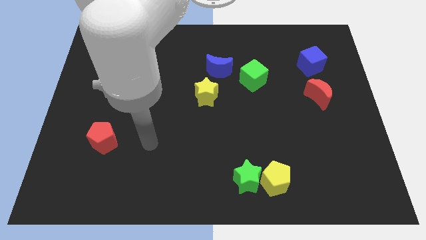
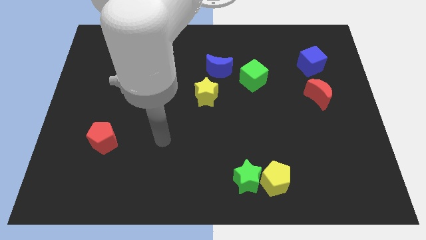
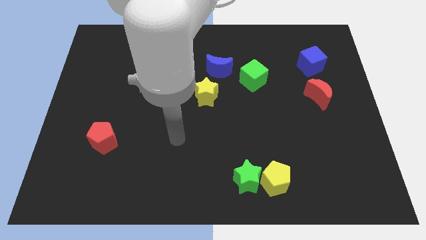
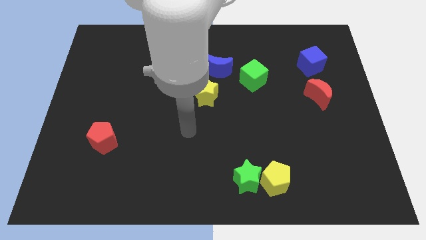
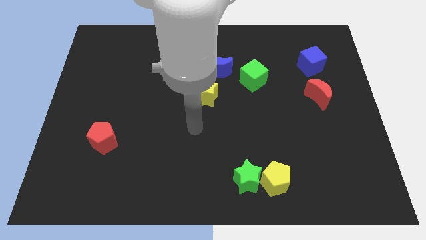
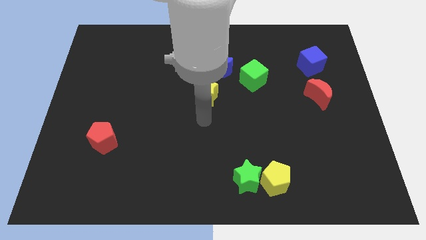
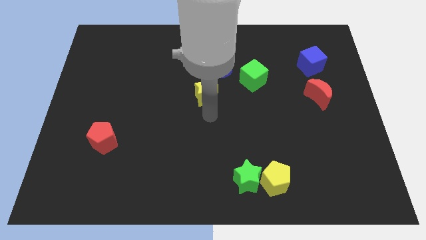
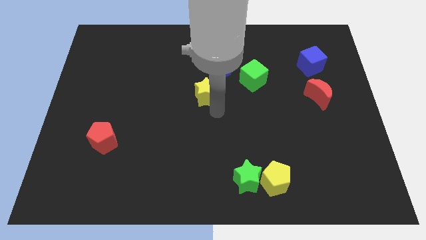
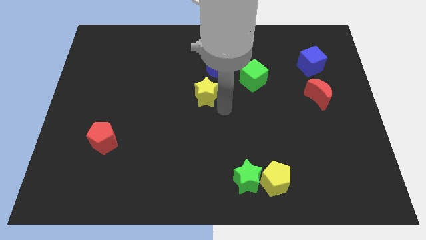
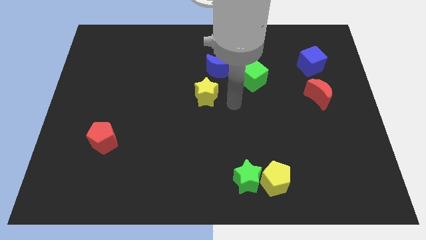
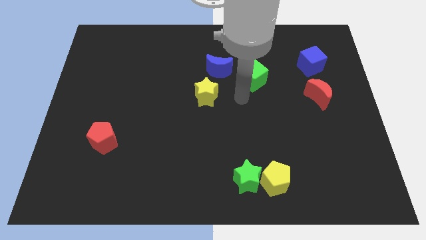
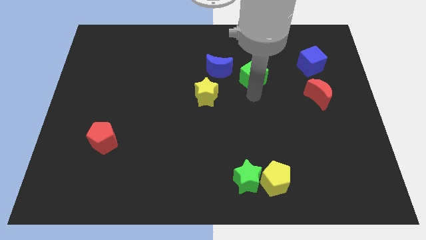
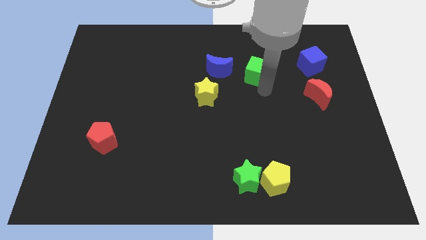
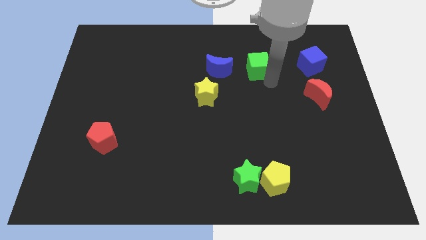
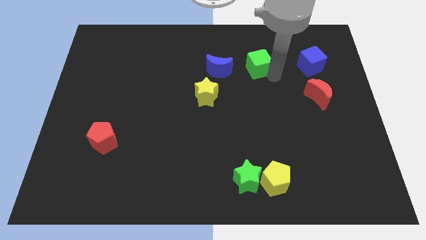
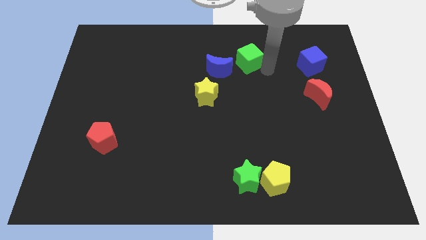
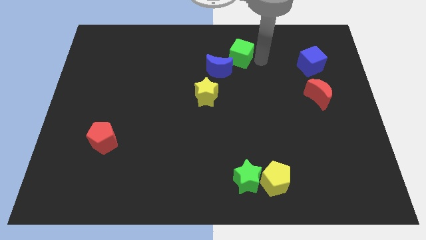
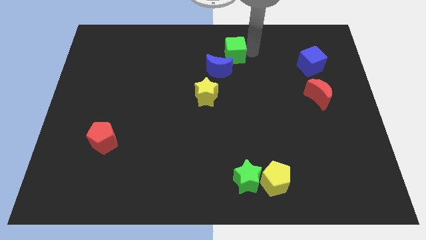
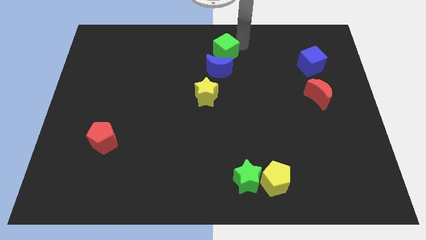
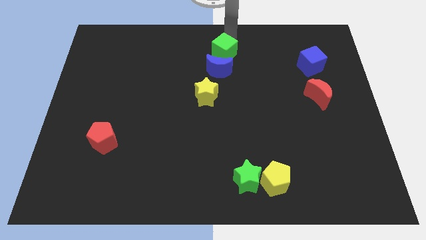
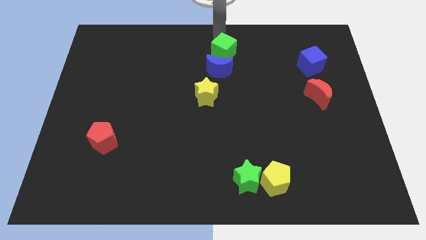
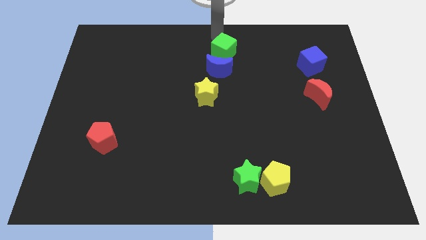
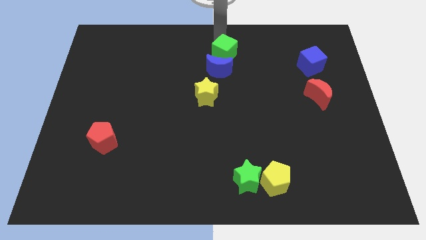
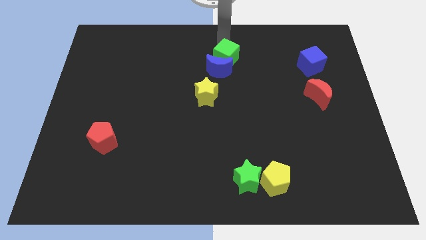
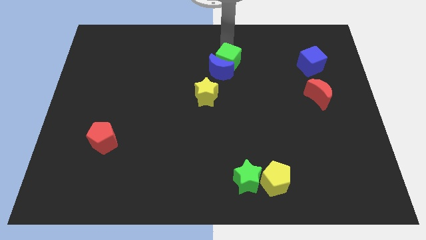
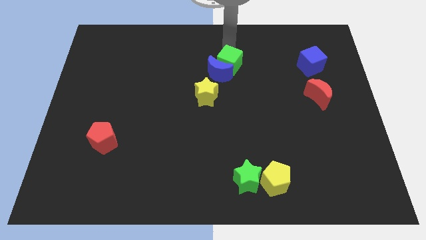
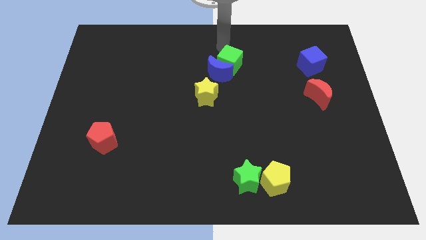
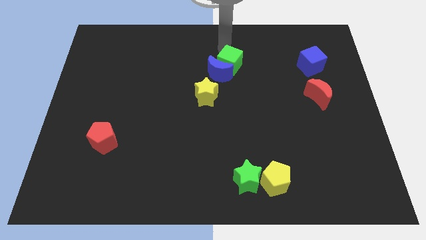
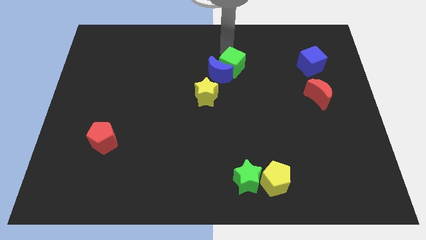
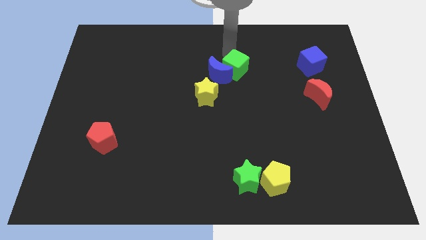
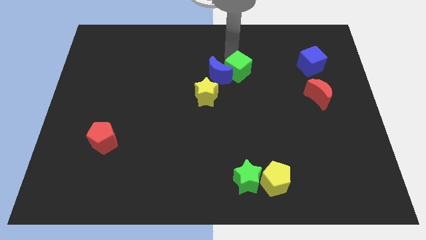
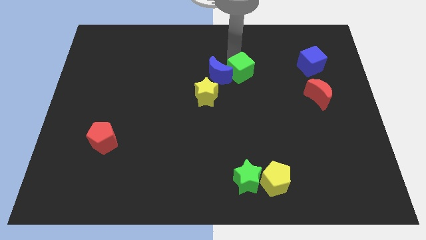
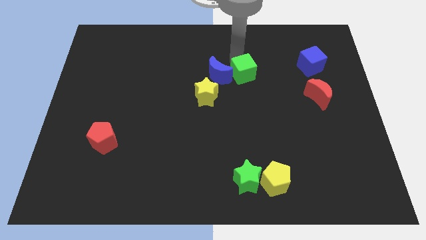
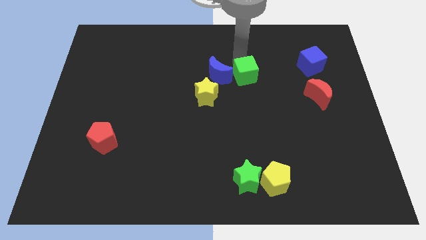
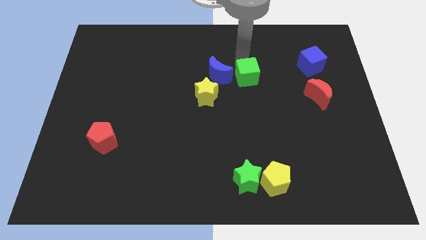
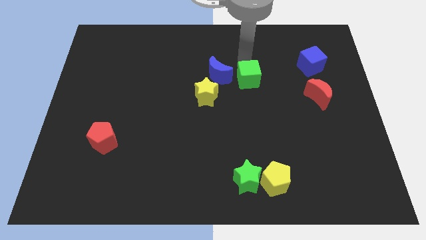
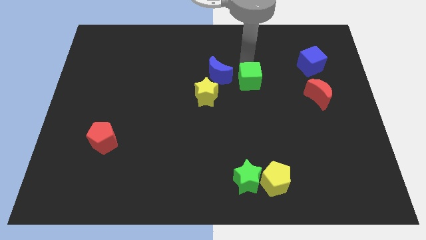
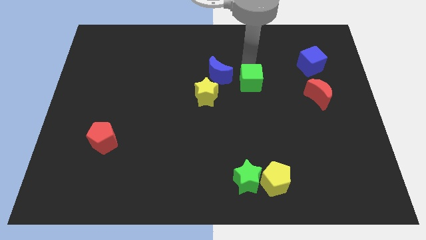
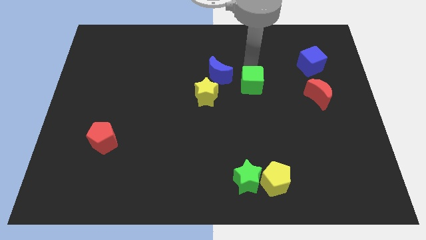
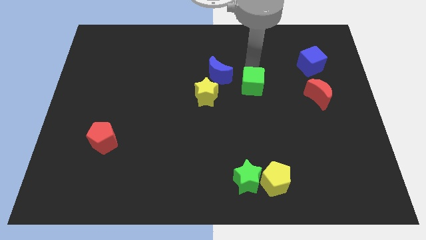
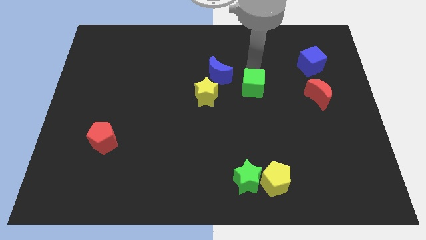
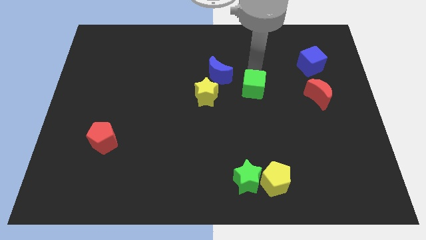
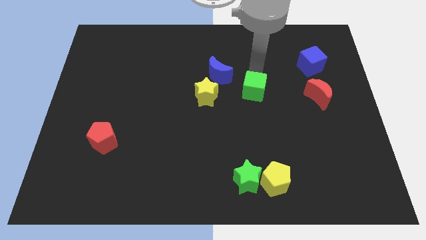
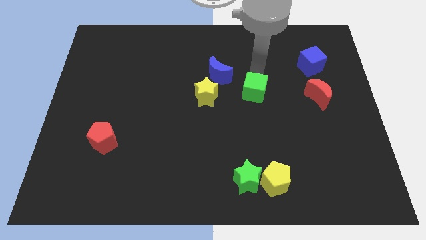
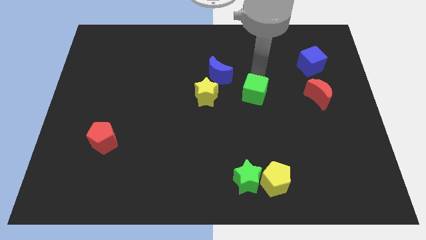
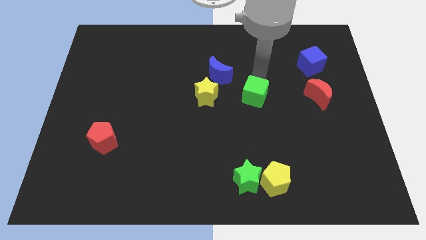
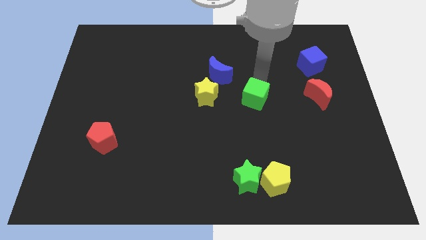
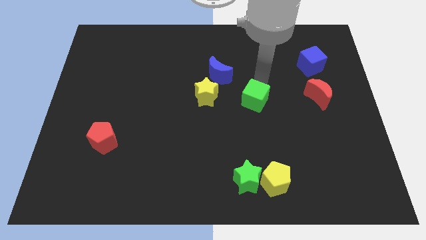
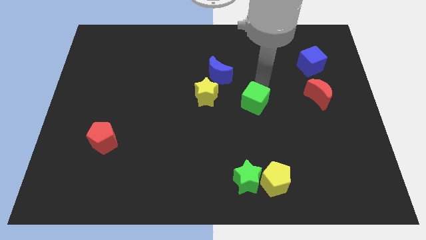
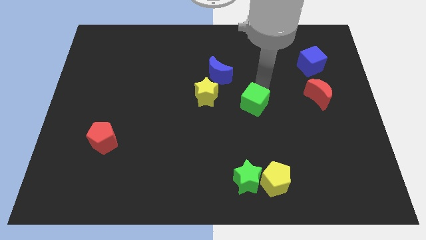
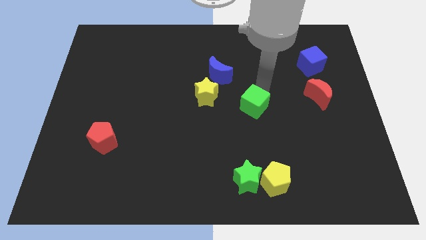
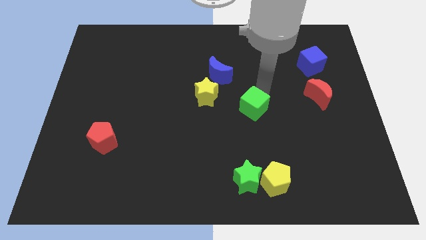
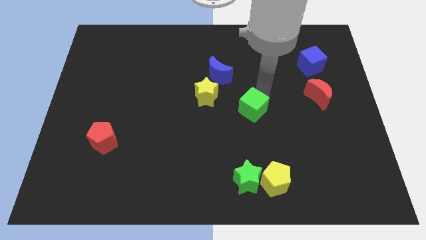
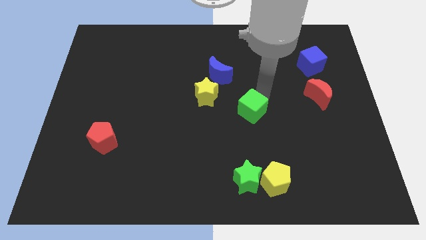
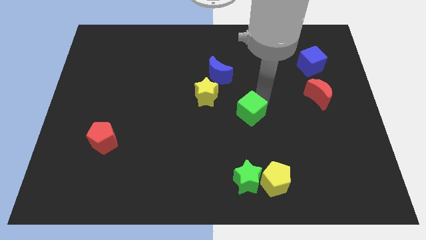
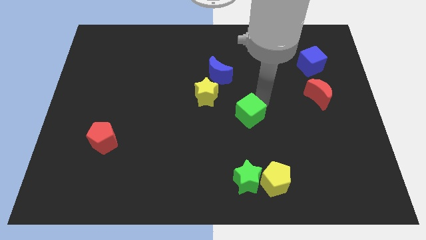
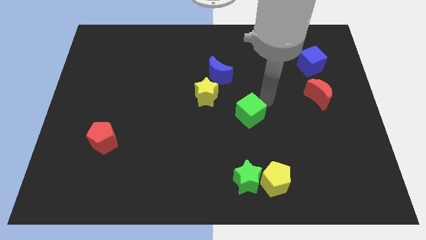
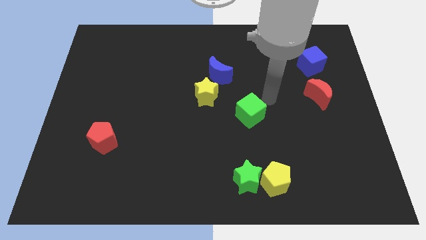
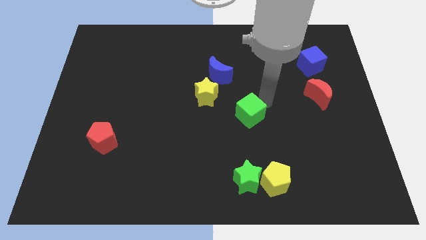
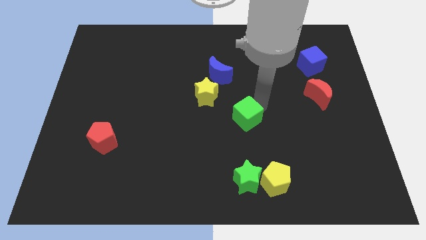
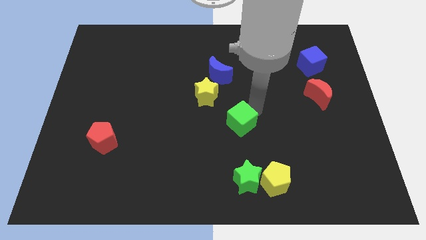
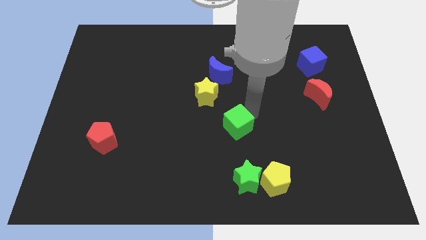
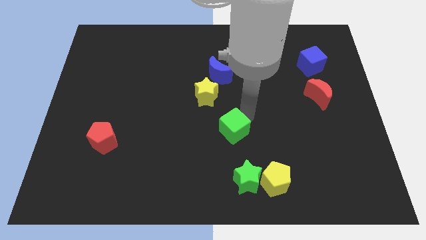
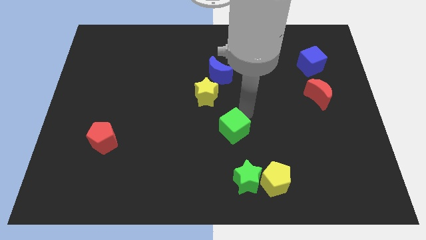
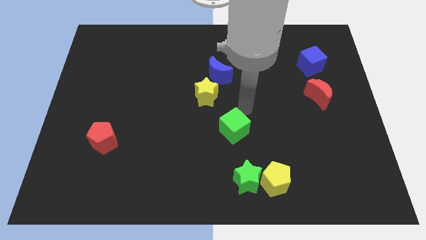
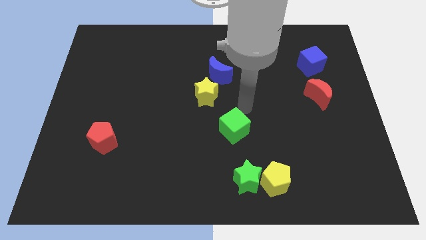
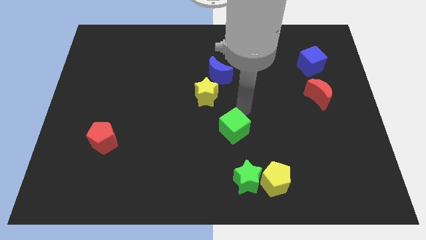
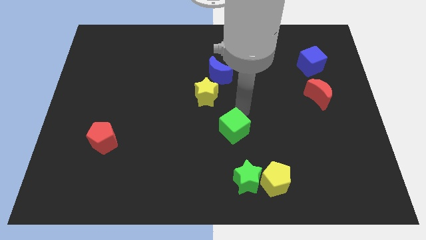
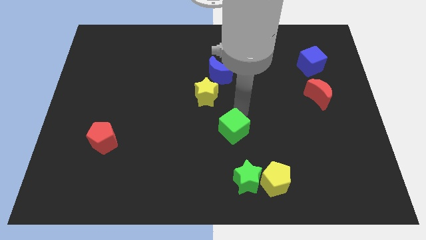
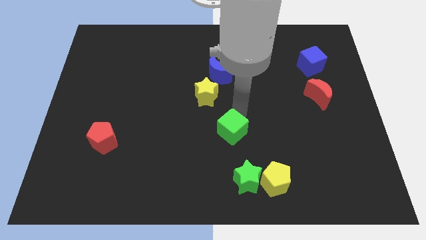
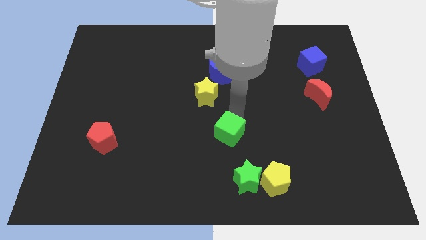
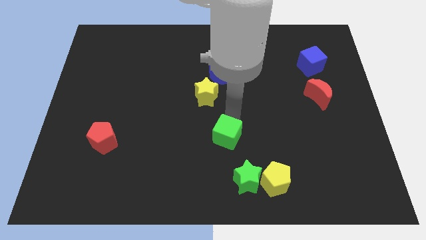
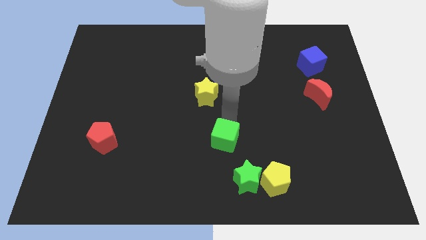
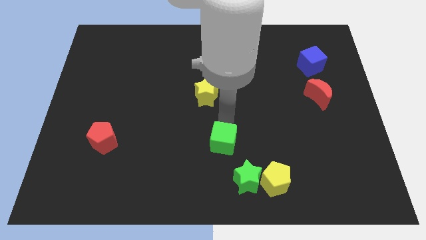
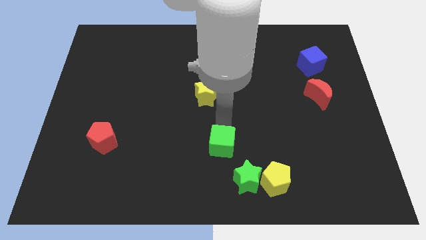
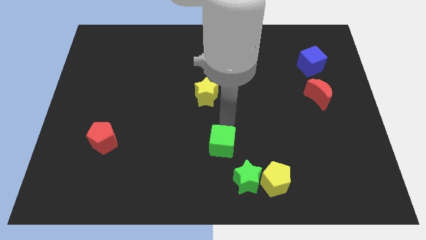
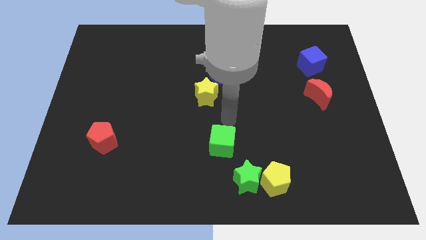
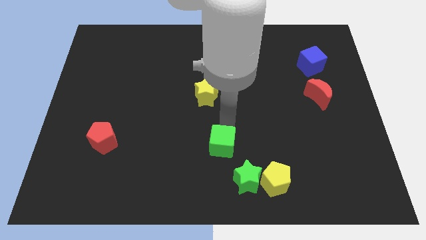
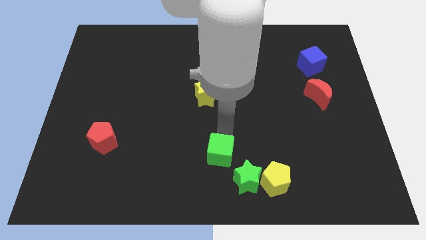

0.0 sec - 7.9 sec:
slide the green cube to the bottom side
